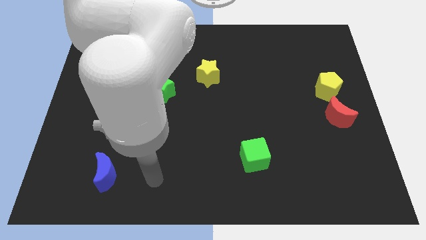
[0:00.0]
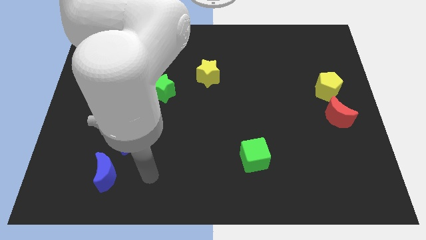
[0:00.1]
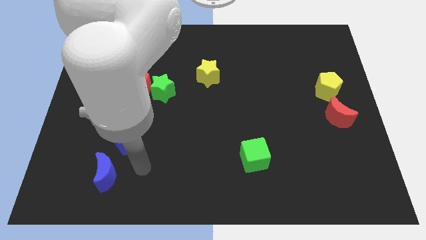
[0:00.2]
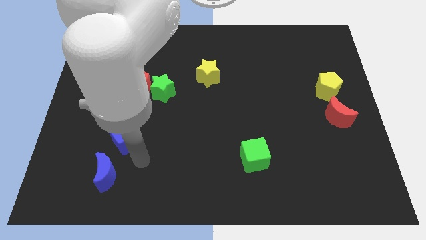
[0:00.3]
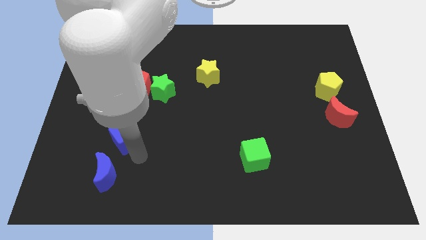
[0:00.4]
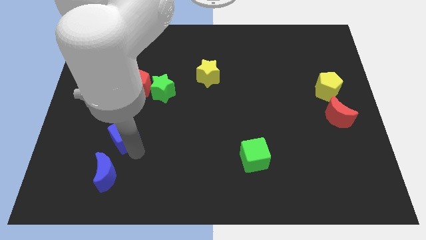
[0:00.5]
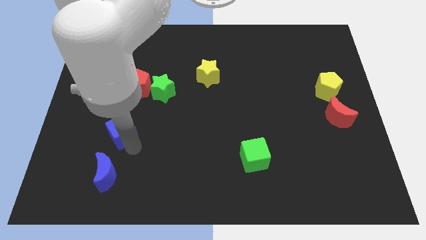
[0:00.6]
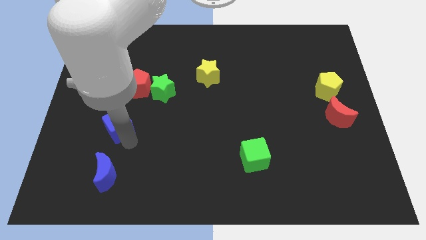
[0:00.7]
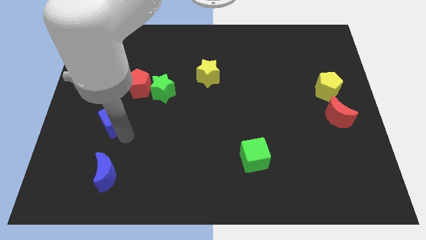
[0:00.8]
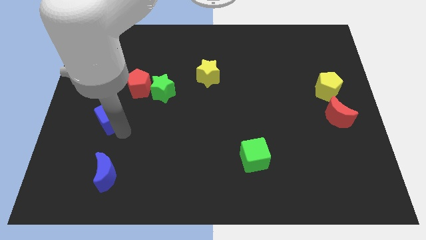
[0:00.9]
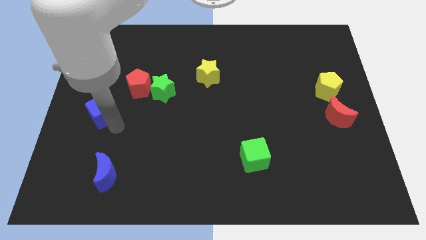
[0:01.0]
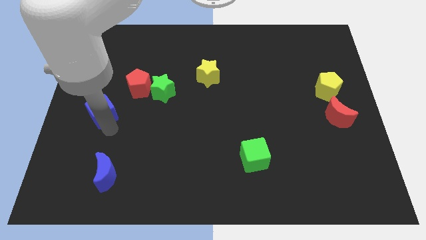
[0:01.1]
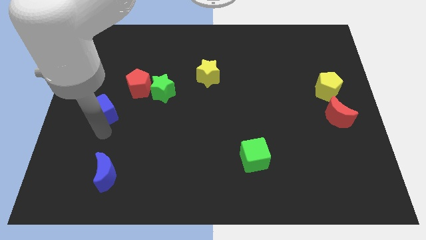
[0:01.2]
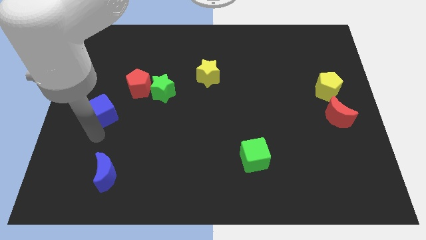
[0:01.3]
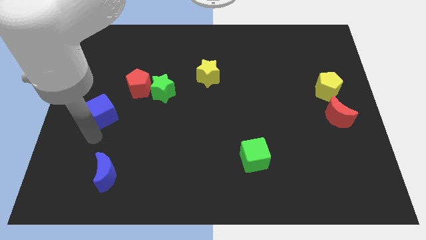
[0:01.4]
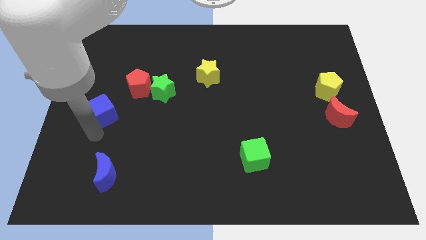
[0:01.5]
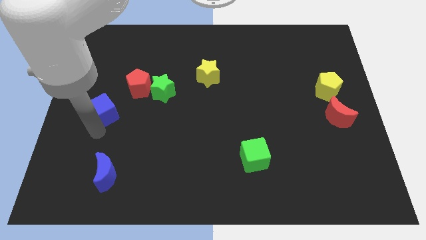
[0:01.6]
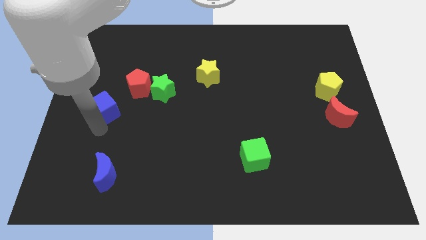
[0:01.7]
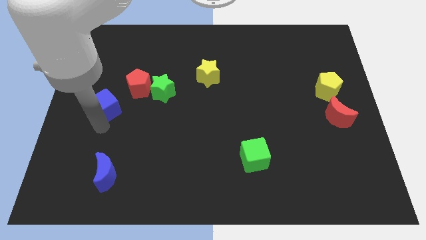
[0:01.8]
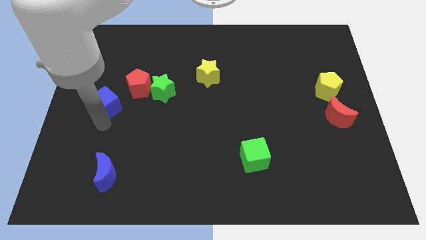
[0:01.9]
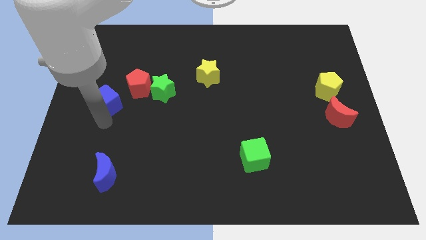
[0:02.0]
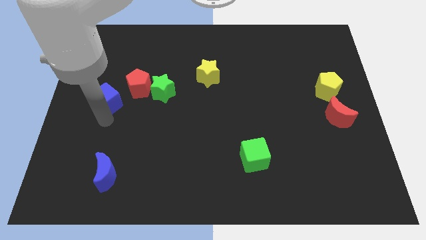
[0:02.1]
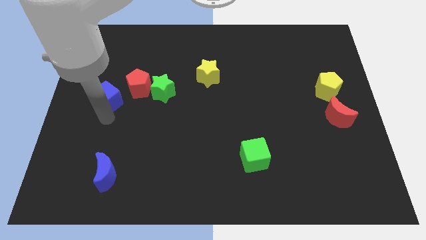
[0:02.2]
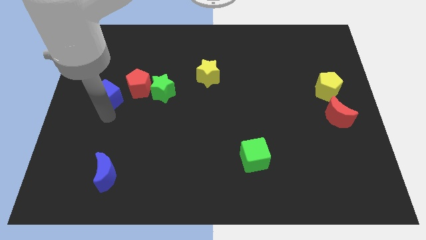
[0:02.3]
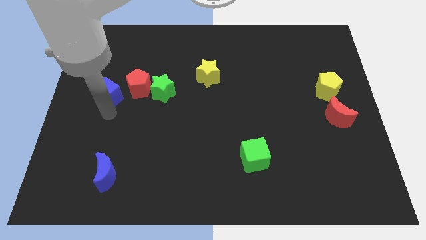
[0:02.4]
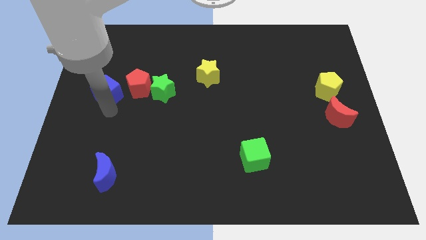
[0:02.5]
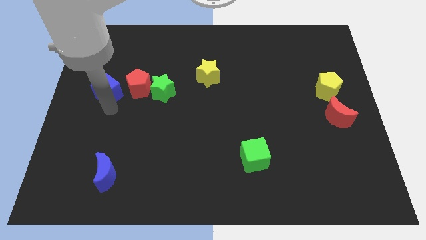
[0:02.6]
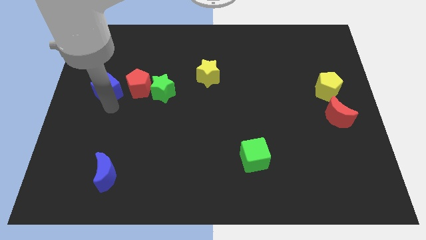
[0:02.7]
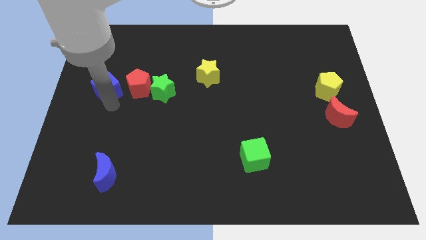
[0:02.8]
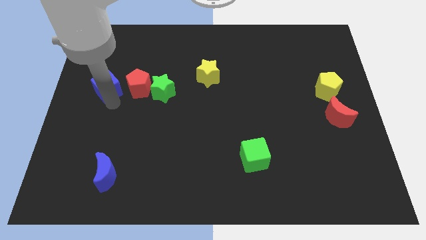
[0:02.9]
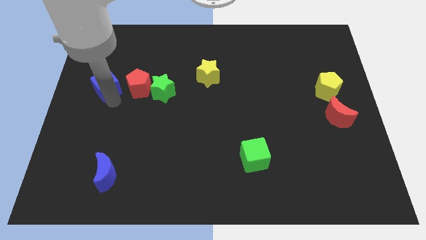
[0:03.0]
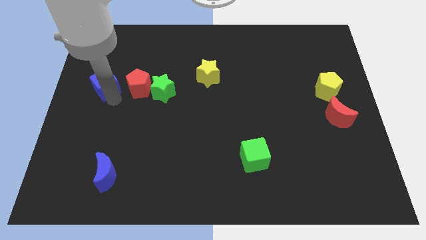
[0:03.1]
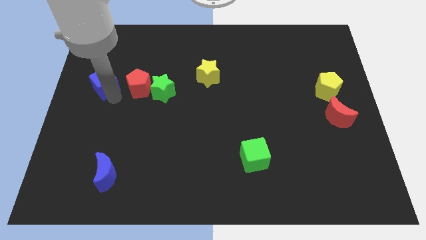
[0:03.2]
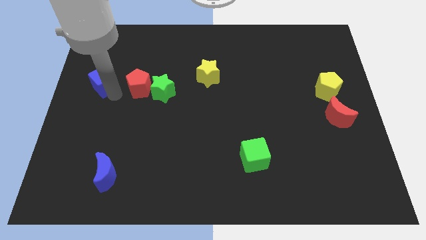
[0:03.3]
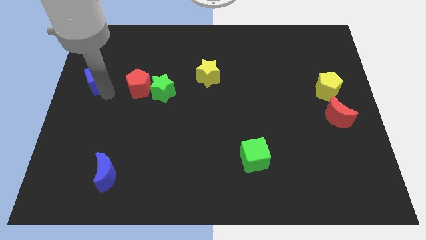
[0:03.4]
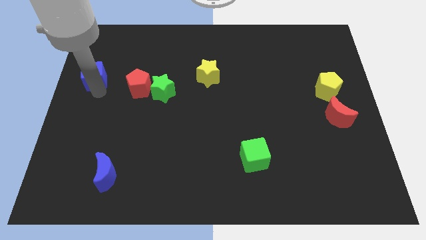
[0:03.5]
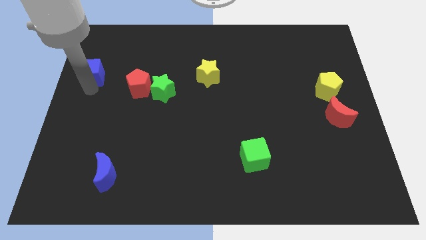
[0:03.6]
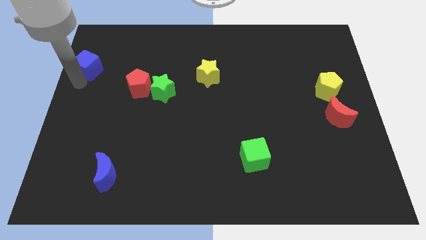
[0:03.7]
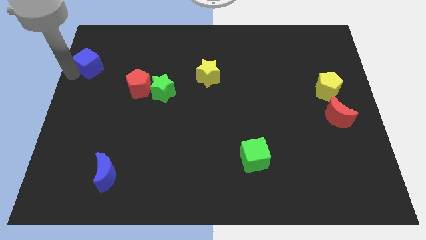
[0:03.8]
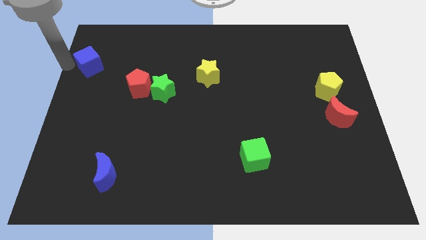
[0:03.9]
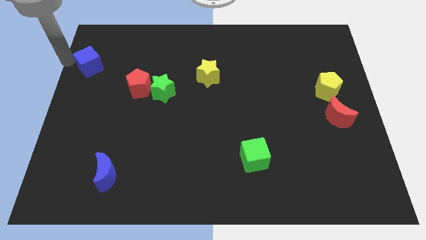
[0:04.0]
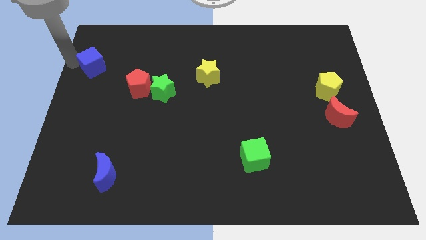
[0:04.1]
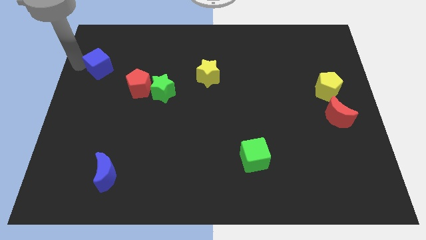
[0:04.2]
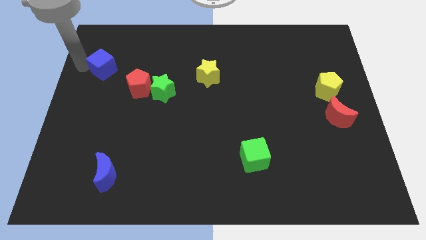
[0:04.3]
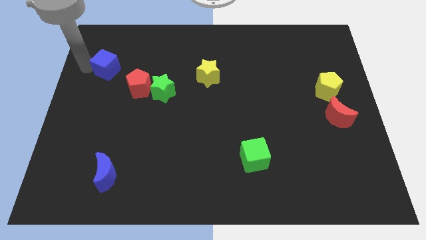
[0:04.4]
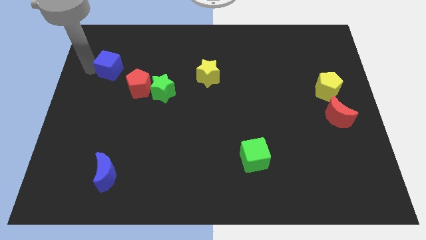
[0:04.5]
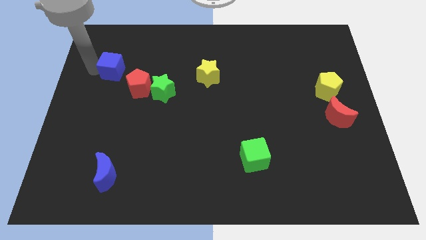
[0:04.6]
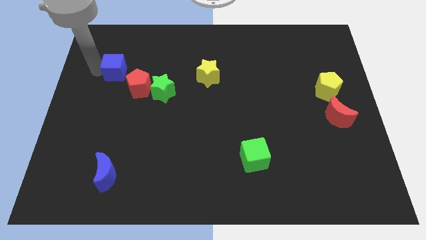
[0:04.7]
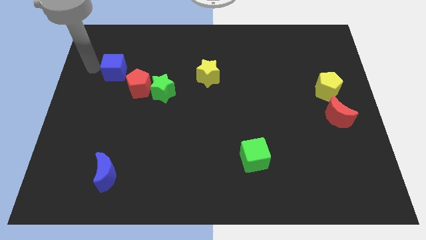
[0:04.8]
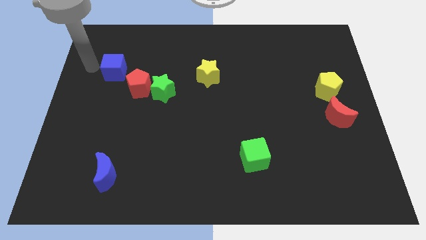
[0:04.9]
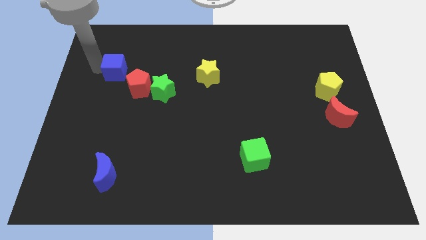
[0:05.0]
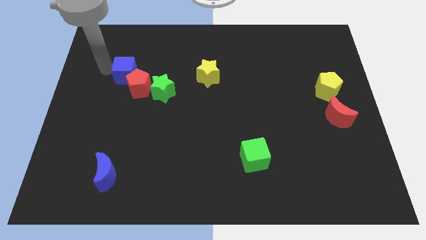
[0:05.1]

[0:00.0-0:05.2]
put the blue cube to the top left of the green star

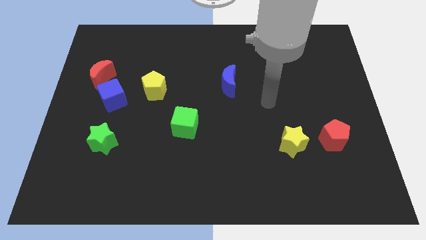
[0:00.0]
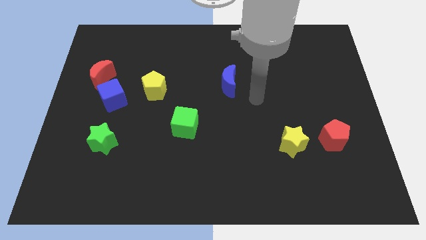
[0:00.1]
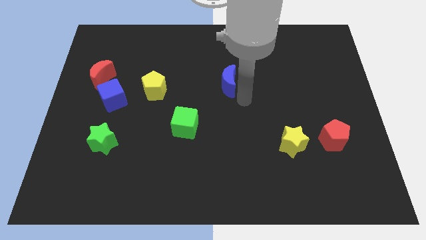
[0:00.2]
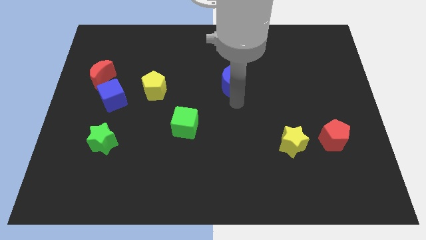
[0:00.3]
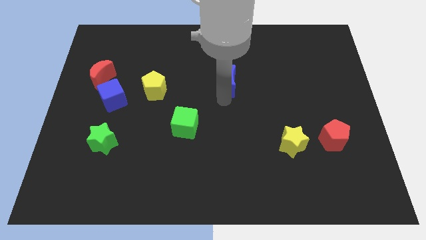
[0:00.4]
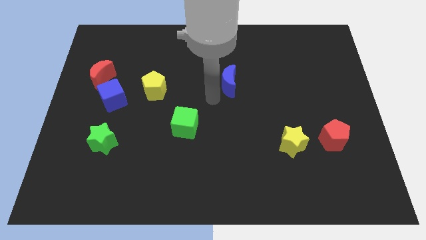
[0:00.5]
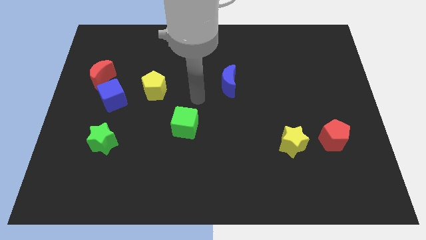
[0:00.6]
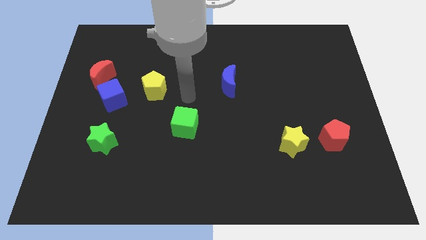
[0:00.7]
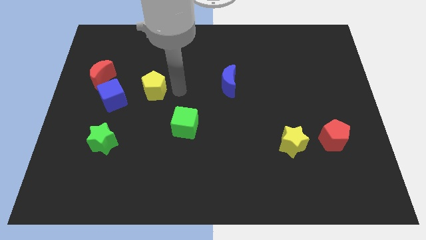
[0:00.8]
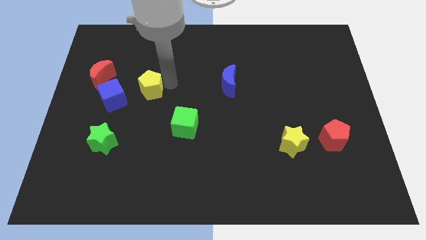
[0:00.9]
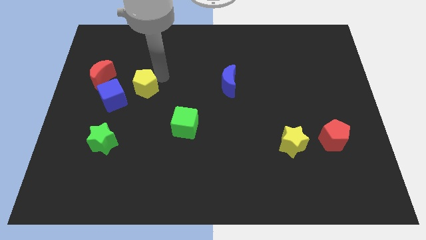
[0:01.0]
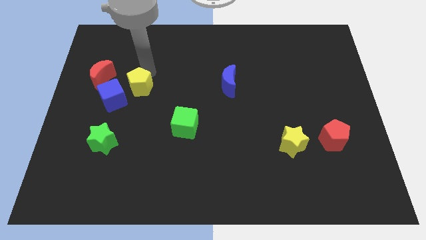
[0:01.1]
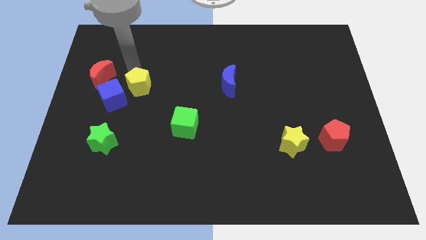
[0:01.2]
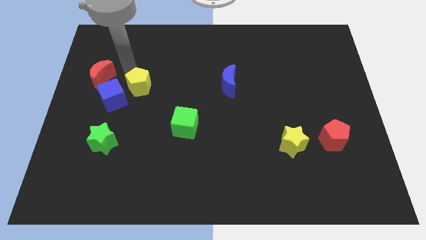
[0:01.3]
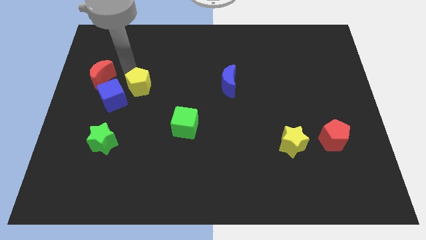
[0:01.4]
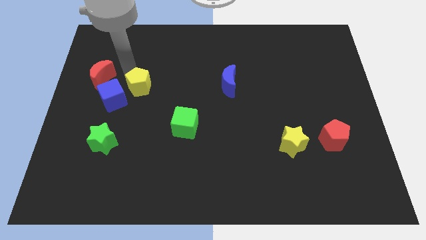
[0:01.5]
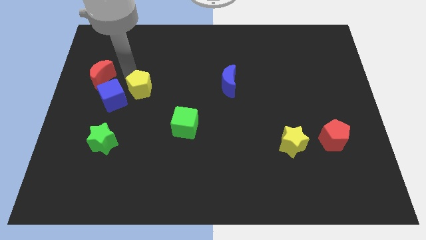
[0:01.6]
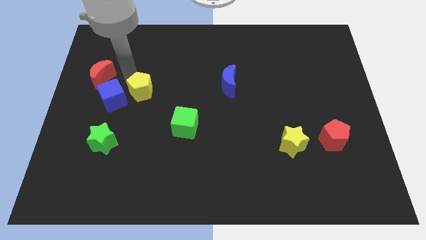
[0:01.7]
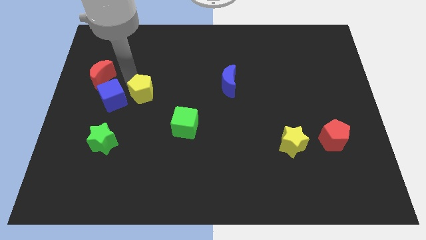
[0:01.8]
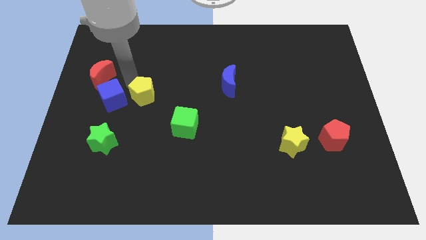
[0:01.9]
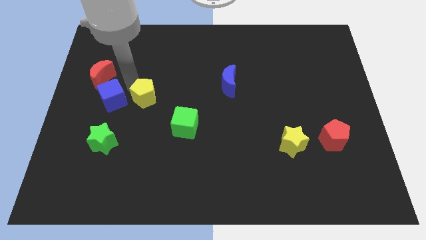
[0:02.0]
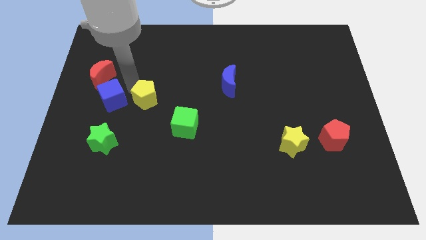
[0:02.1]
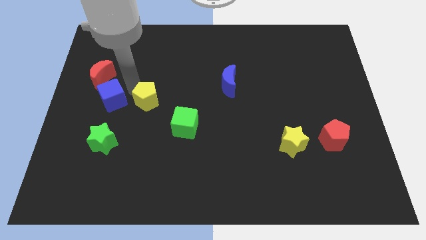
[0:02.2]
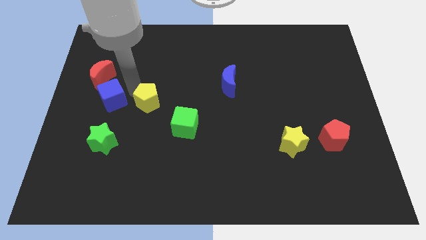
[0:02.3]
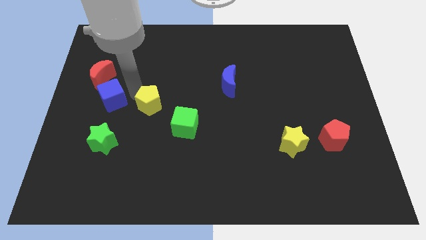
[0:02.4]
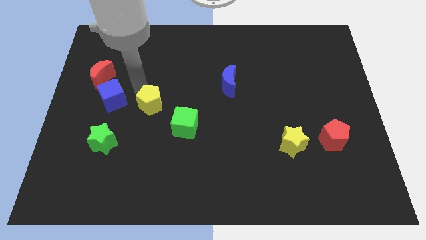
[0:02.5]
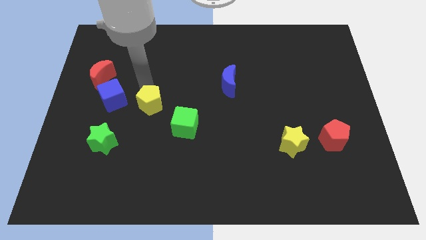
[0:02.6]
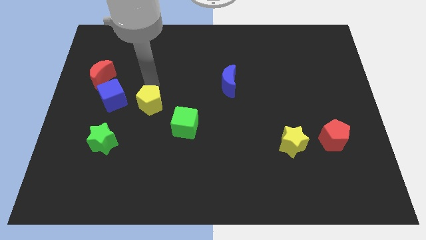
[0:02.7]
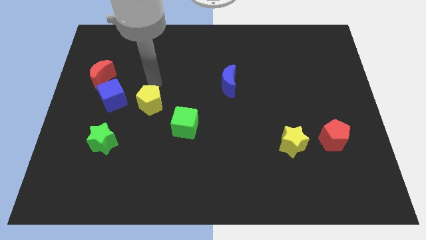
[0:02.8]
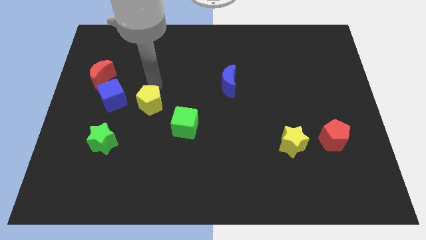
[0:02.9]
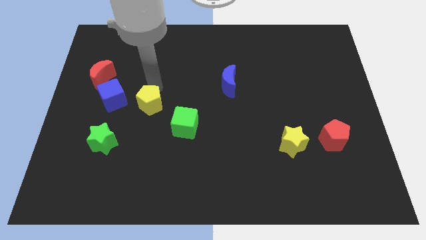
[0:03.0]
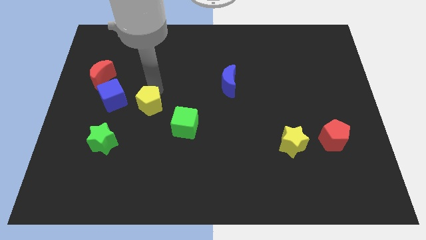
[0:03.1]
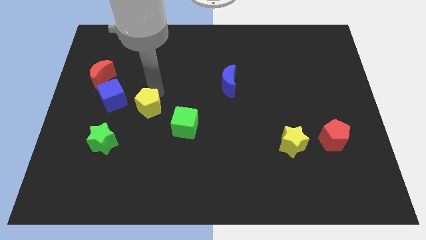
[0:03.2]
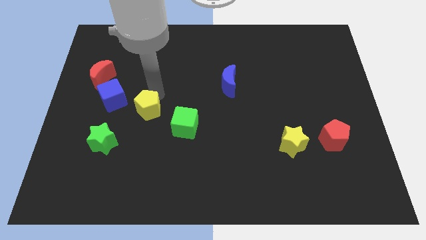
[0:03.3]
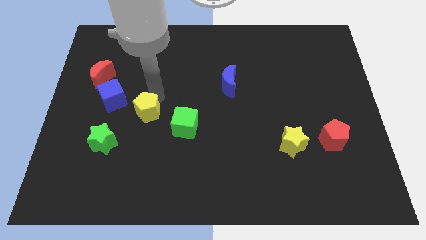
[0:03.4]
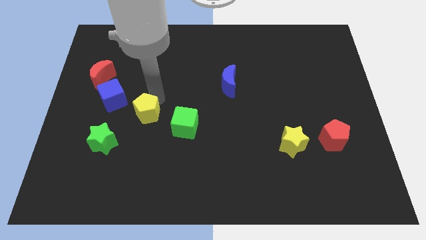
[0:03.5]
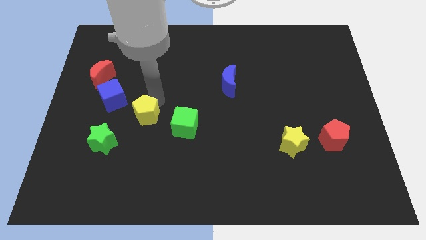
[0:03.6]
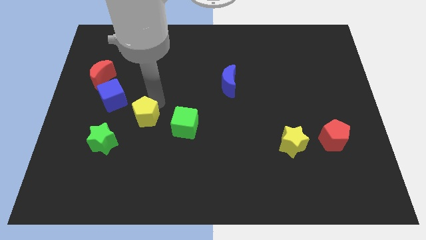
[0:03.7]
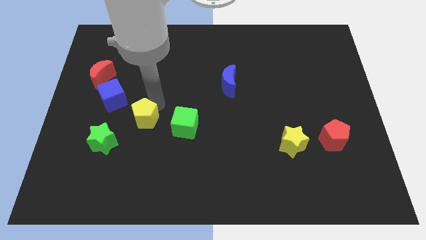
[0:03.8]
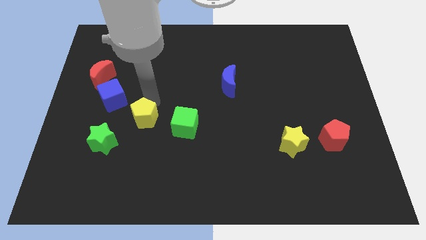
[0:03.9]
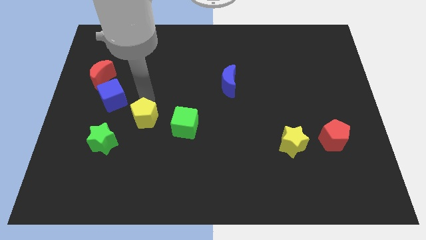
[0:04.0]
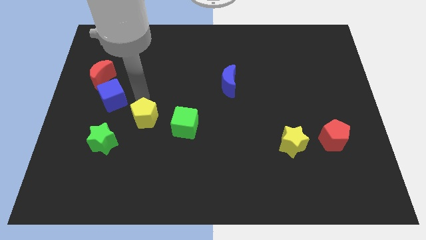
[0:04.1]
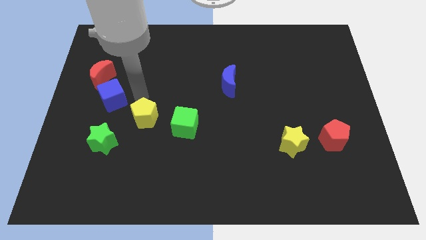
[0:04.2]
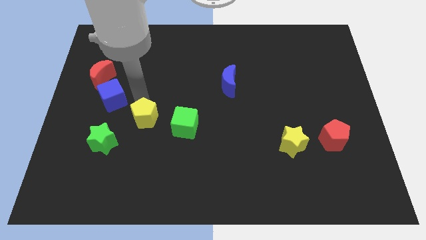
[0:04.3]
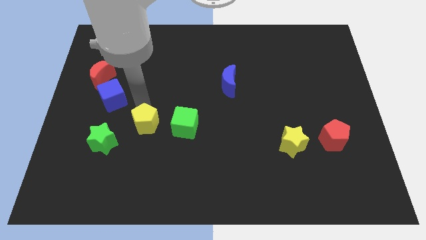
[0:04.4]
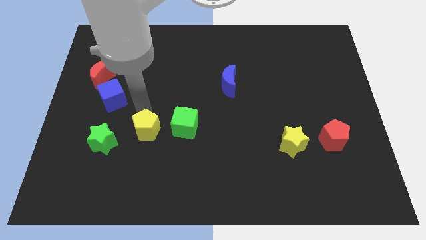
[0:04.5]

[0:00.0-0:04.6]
move the yellow pentagon just right of the green star
